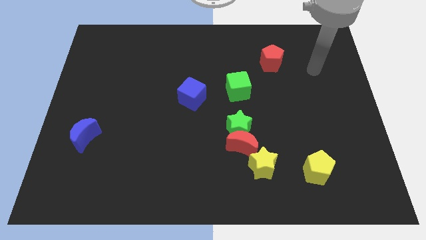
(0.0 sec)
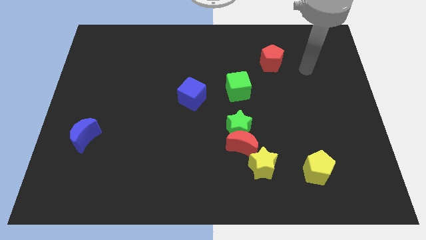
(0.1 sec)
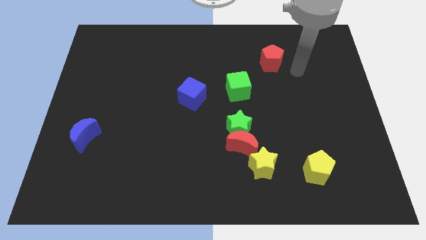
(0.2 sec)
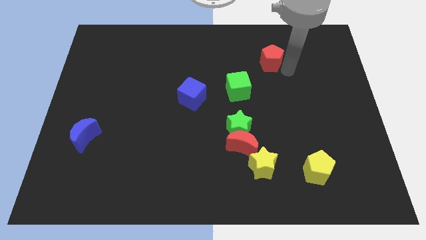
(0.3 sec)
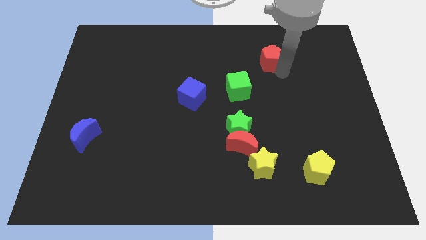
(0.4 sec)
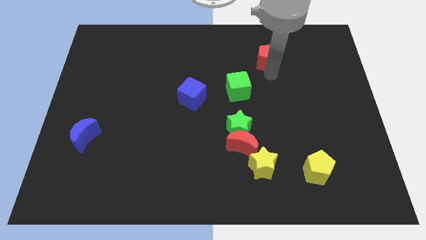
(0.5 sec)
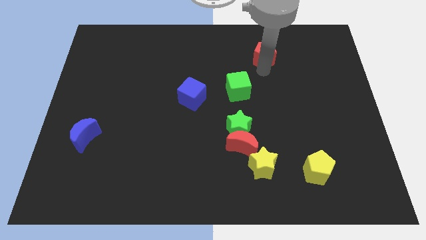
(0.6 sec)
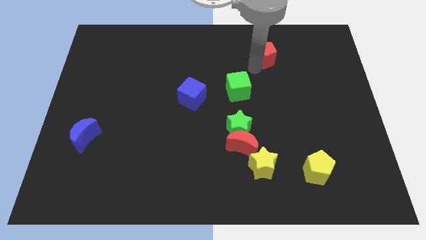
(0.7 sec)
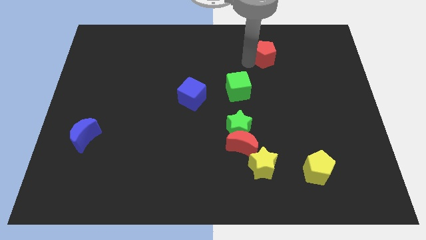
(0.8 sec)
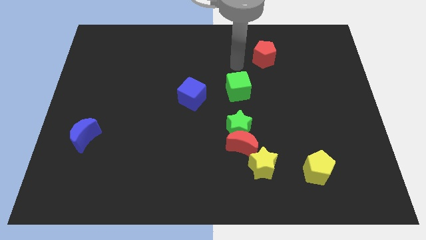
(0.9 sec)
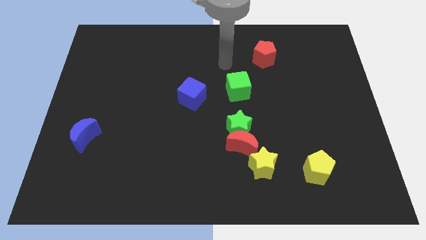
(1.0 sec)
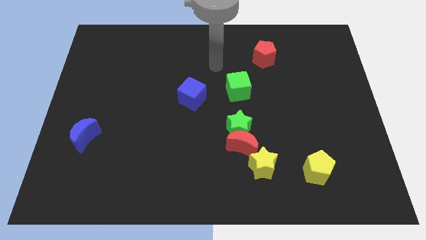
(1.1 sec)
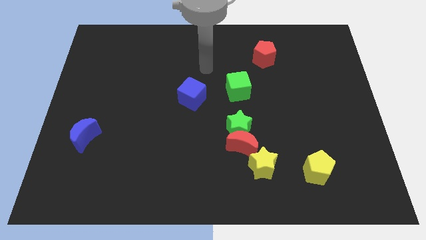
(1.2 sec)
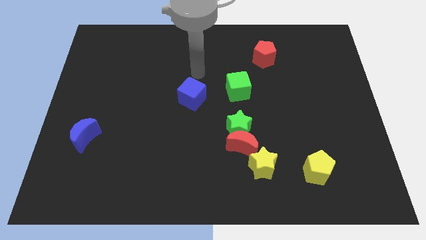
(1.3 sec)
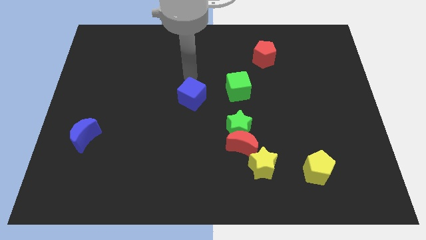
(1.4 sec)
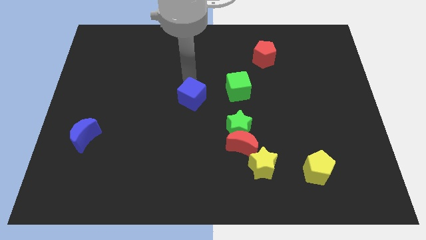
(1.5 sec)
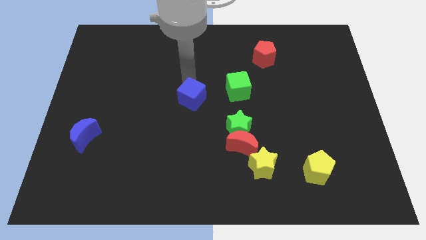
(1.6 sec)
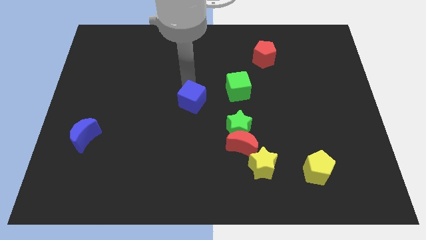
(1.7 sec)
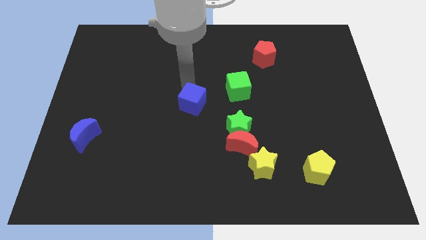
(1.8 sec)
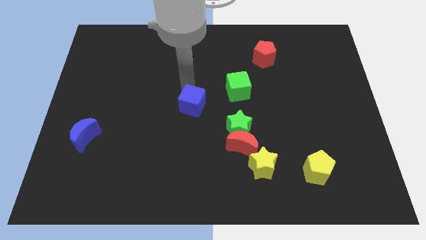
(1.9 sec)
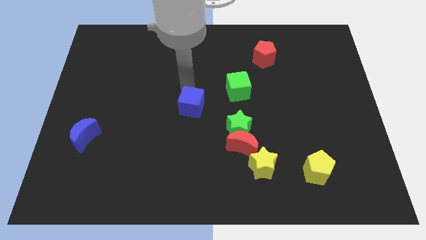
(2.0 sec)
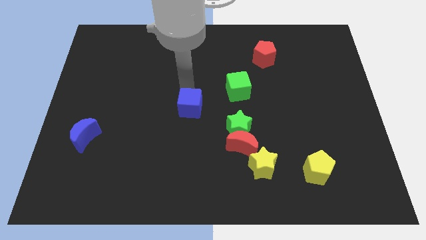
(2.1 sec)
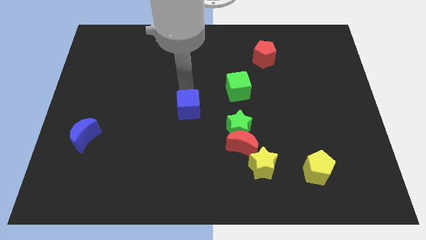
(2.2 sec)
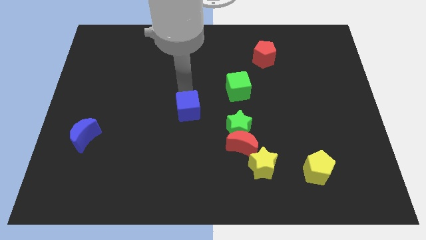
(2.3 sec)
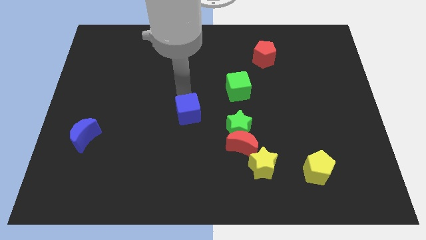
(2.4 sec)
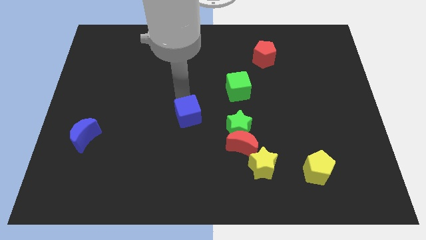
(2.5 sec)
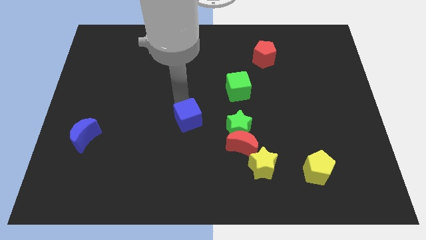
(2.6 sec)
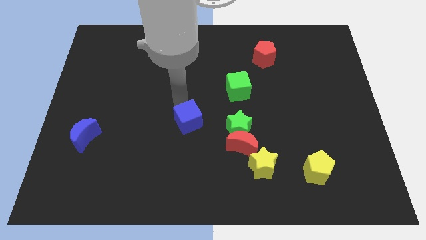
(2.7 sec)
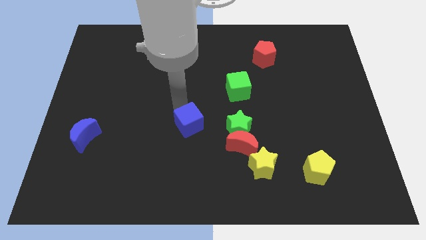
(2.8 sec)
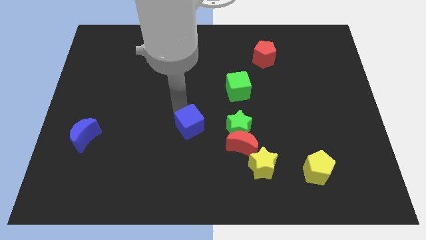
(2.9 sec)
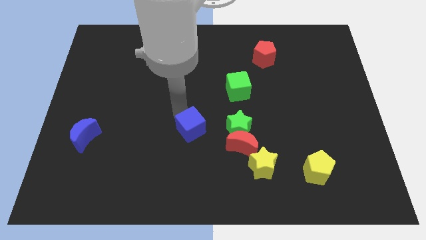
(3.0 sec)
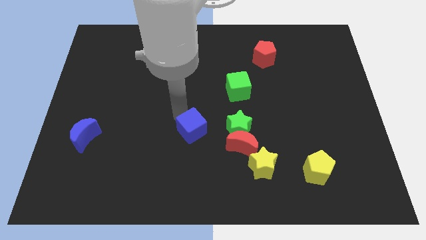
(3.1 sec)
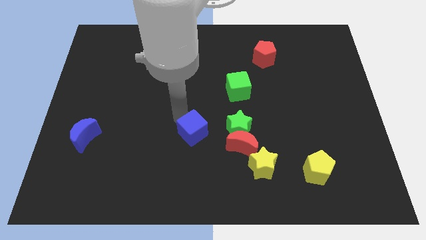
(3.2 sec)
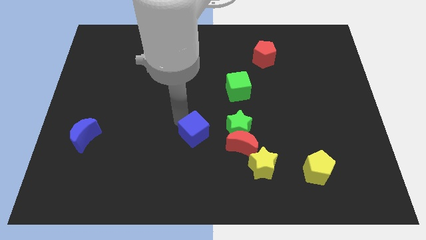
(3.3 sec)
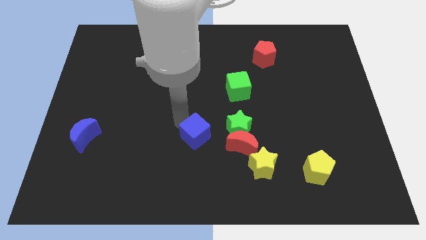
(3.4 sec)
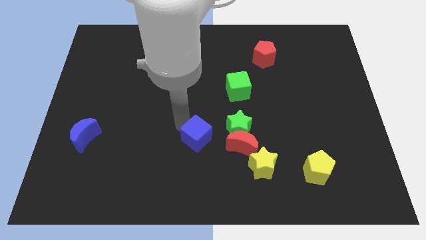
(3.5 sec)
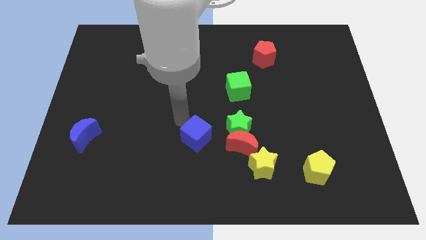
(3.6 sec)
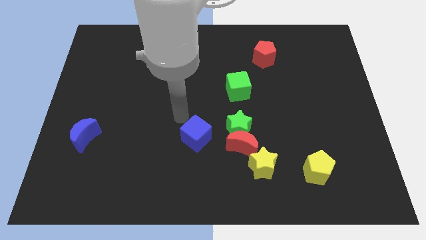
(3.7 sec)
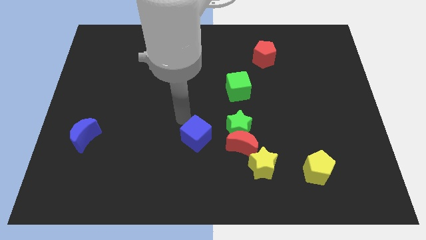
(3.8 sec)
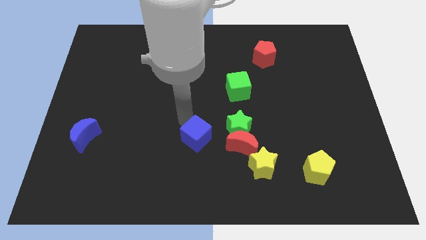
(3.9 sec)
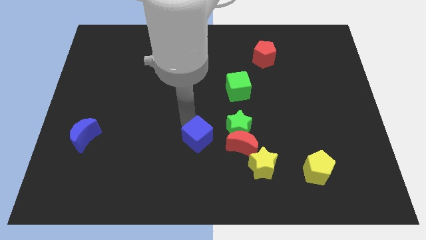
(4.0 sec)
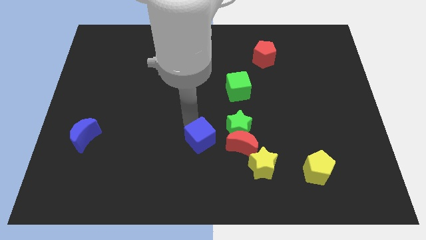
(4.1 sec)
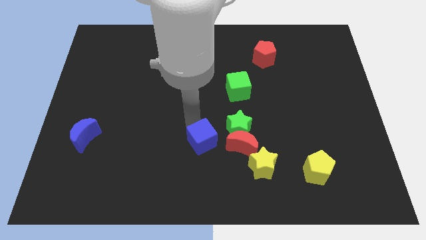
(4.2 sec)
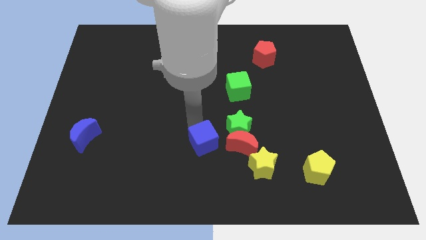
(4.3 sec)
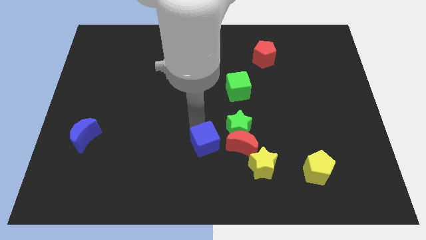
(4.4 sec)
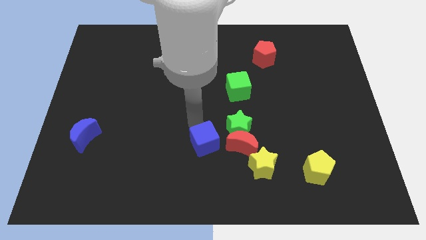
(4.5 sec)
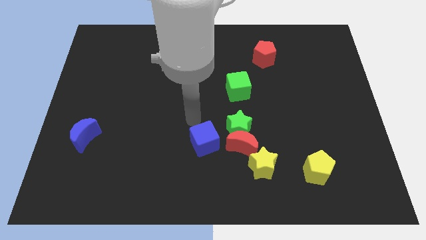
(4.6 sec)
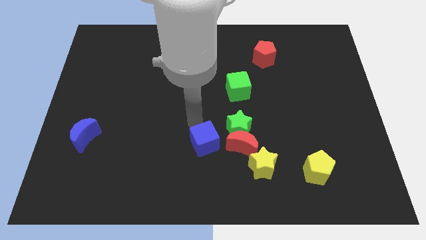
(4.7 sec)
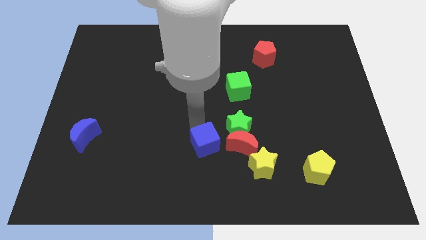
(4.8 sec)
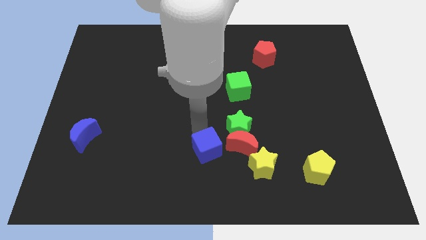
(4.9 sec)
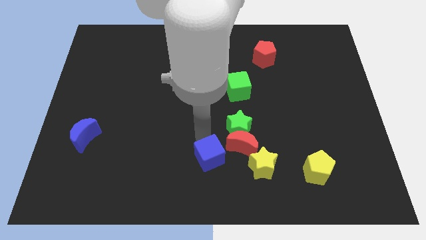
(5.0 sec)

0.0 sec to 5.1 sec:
push the blue cube to the bottom

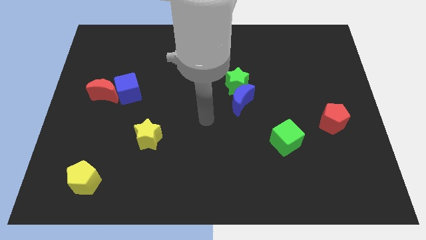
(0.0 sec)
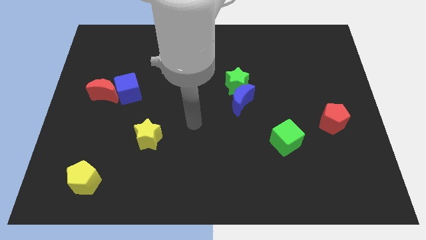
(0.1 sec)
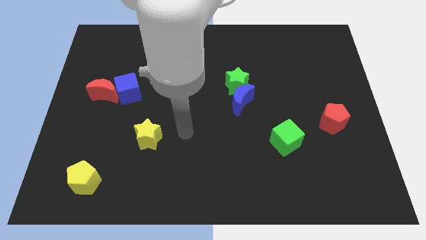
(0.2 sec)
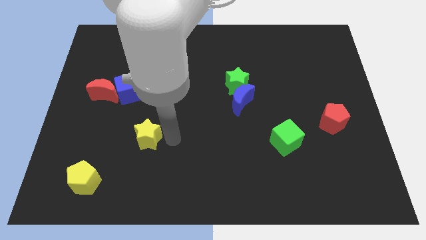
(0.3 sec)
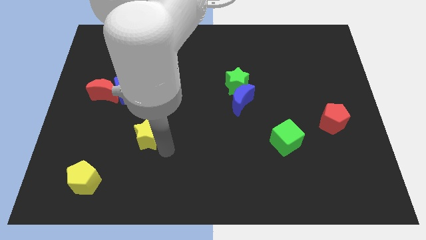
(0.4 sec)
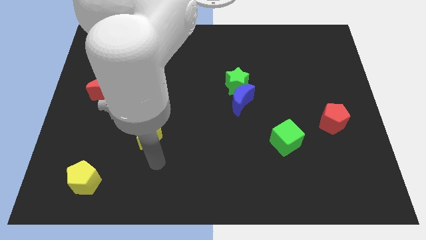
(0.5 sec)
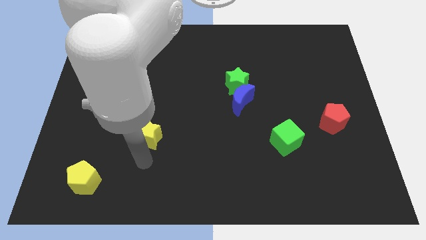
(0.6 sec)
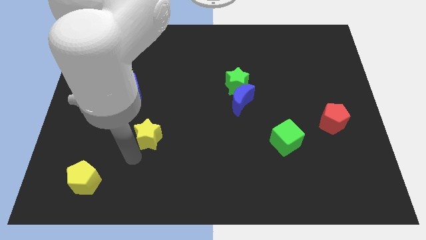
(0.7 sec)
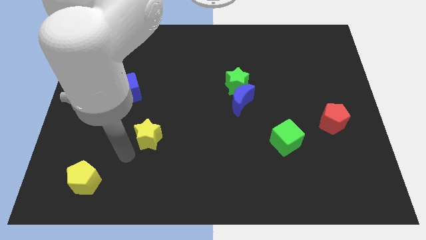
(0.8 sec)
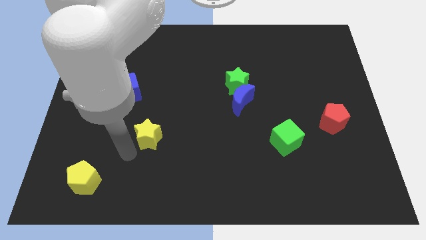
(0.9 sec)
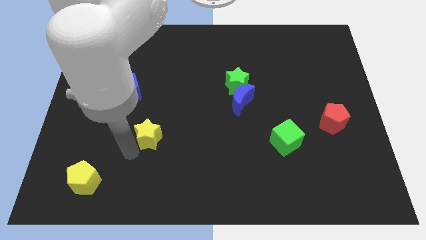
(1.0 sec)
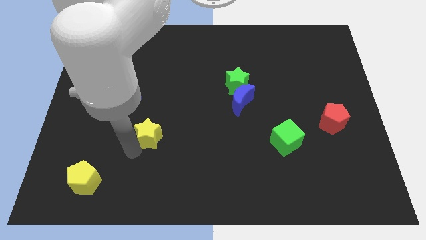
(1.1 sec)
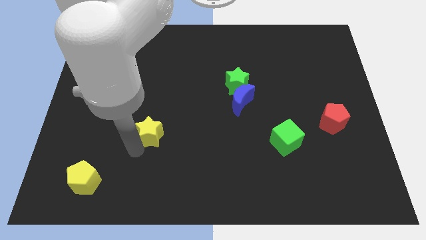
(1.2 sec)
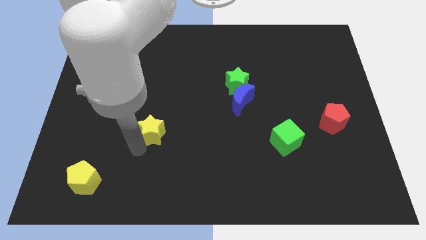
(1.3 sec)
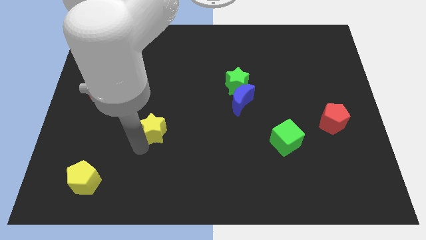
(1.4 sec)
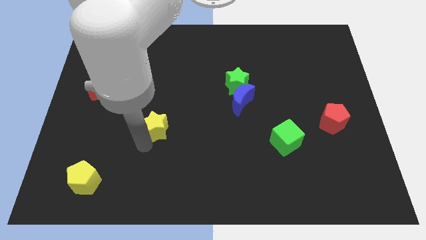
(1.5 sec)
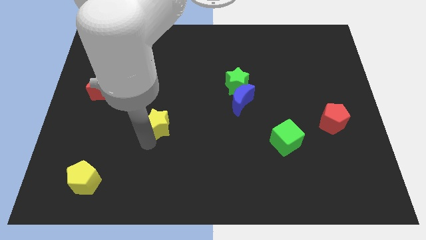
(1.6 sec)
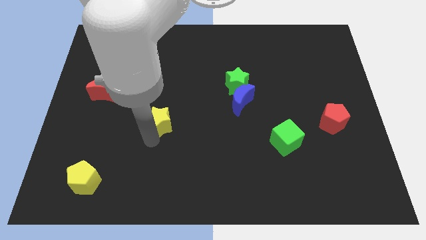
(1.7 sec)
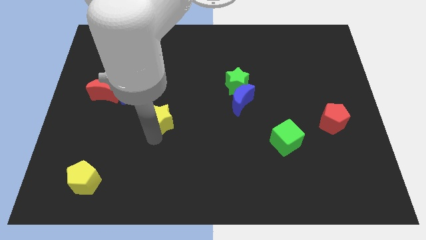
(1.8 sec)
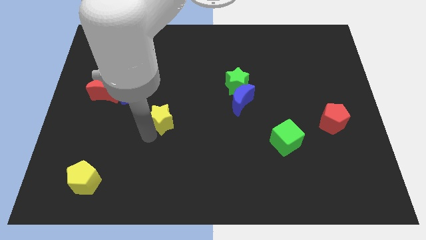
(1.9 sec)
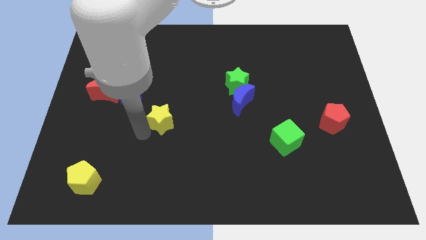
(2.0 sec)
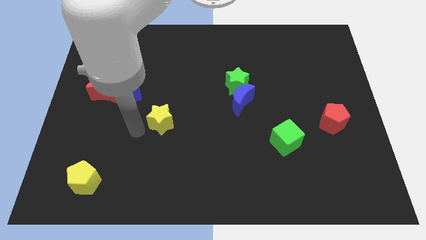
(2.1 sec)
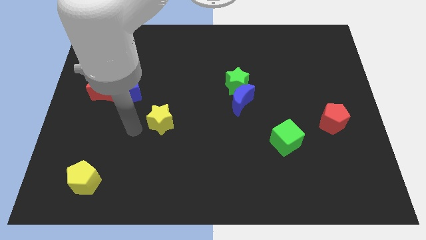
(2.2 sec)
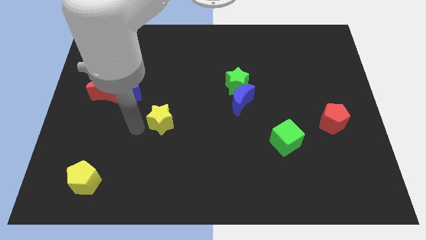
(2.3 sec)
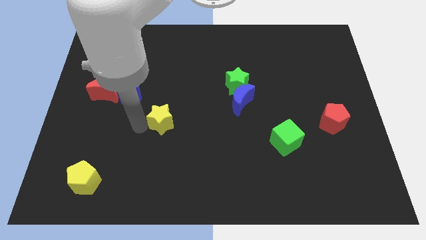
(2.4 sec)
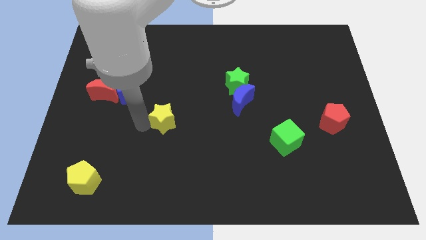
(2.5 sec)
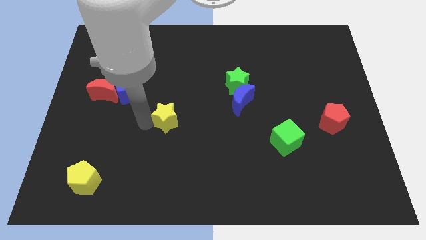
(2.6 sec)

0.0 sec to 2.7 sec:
slide the yellow star to the middle
